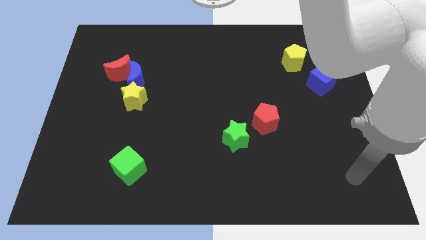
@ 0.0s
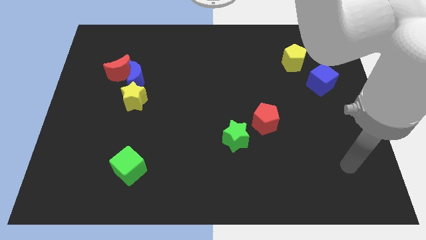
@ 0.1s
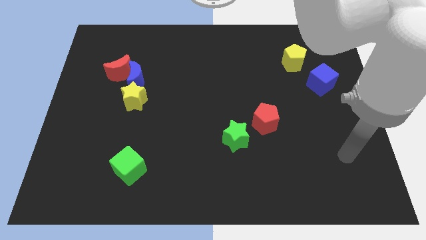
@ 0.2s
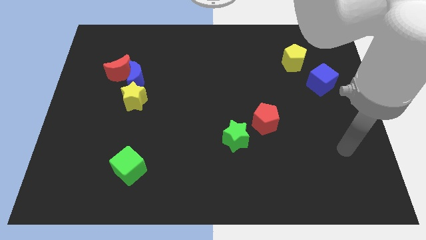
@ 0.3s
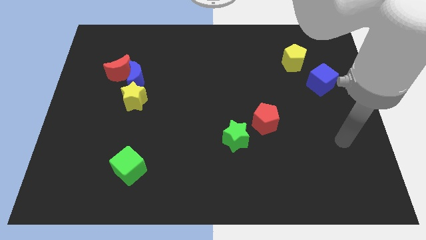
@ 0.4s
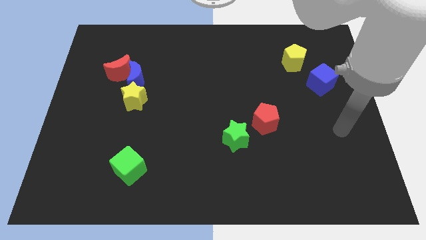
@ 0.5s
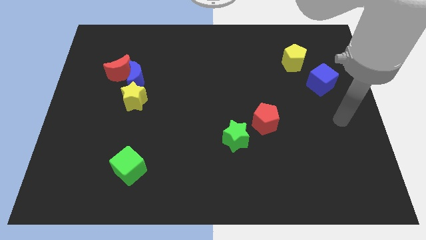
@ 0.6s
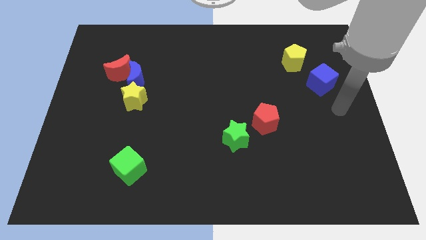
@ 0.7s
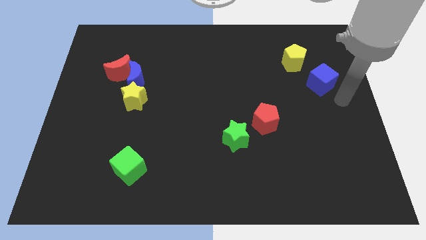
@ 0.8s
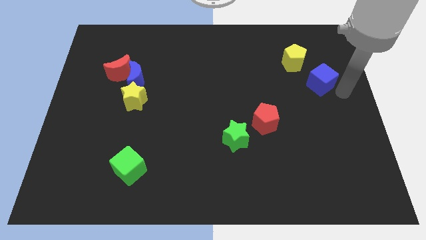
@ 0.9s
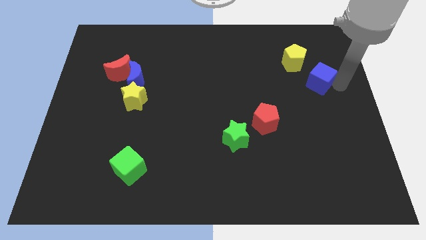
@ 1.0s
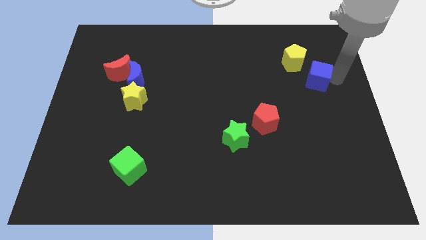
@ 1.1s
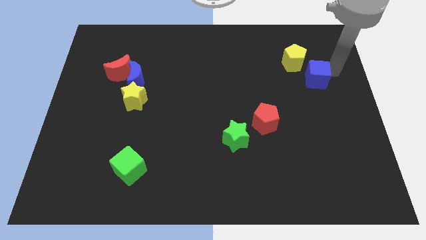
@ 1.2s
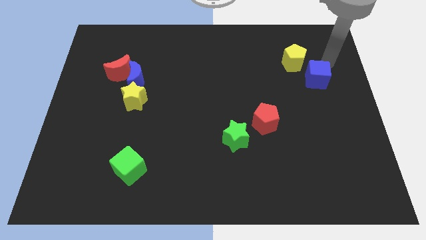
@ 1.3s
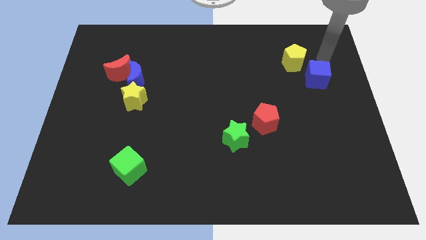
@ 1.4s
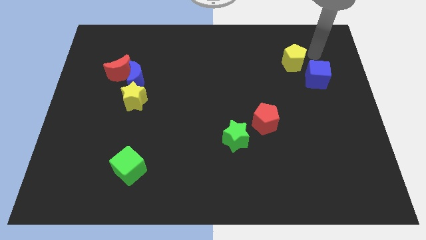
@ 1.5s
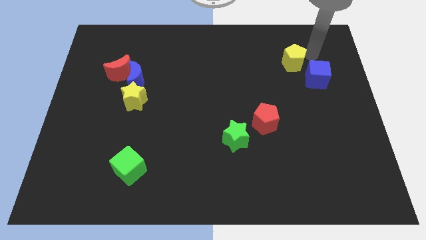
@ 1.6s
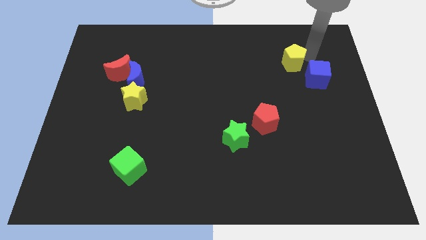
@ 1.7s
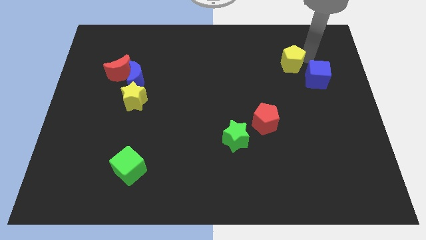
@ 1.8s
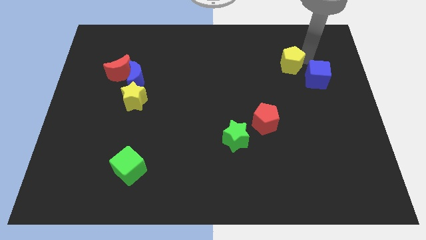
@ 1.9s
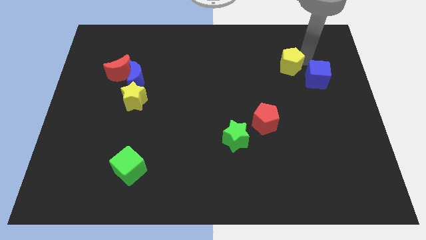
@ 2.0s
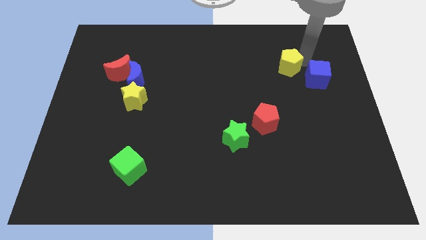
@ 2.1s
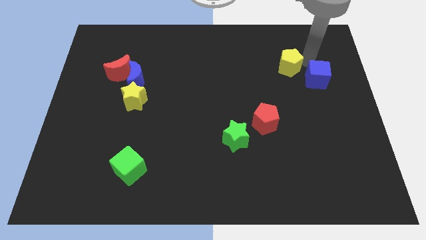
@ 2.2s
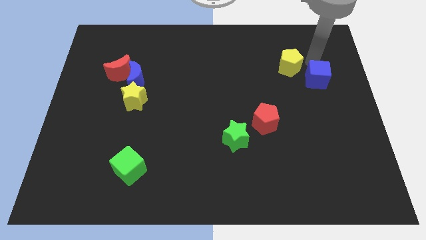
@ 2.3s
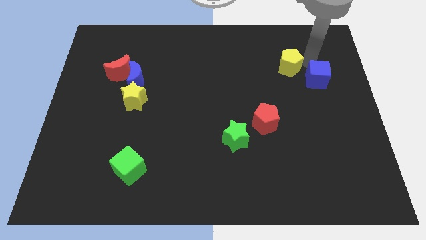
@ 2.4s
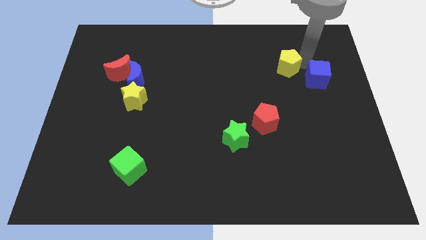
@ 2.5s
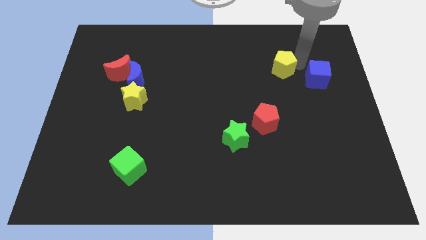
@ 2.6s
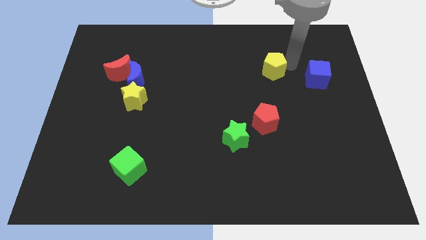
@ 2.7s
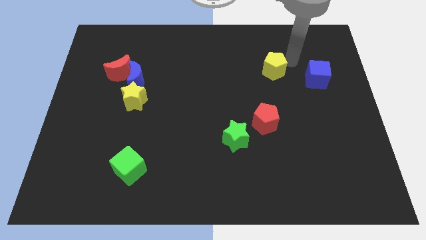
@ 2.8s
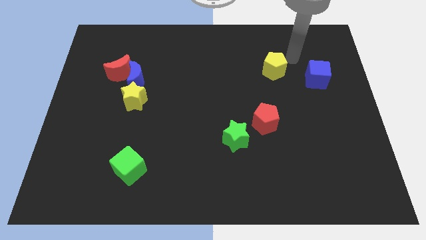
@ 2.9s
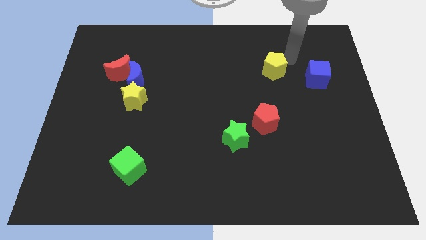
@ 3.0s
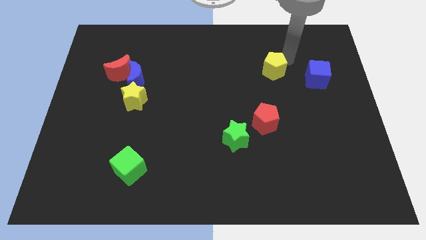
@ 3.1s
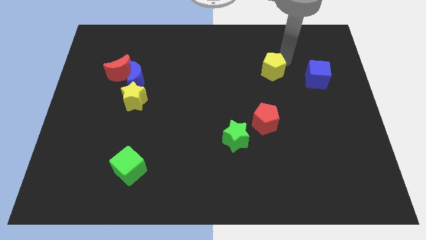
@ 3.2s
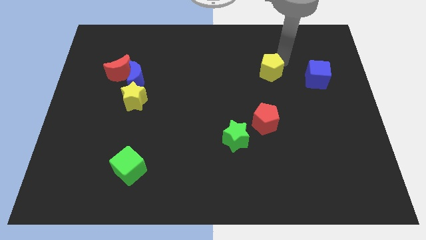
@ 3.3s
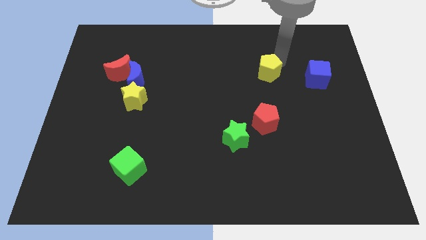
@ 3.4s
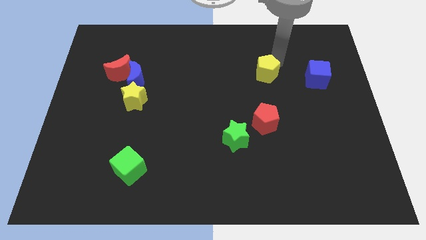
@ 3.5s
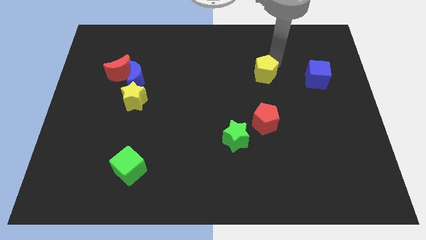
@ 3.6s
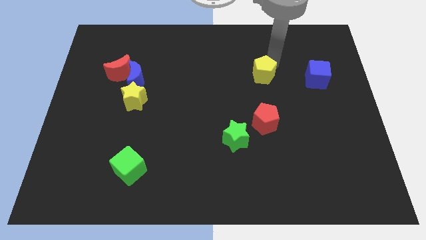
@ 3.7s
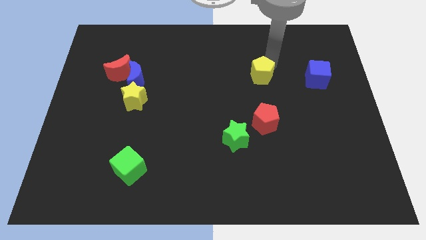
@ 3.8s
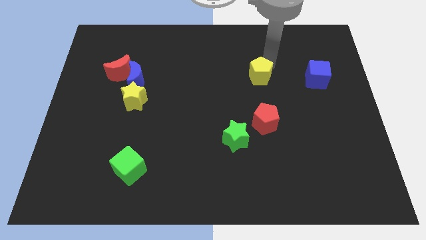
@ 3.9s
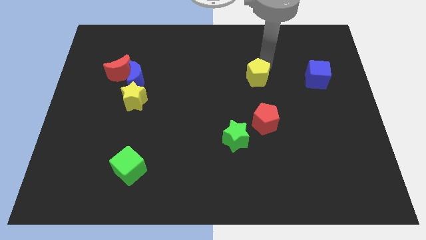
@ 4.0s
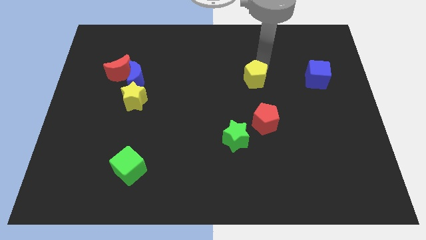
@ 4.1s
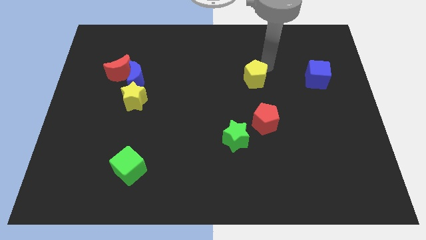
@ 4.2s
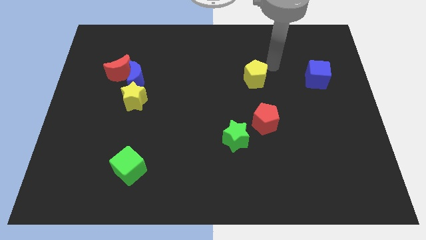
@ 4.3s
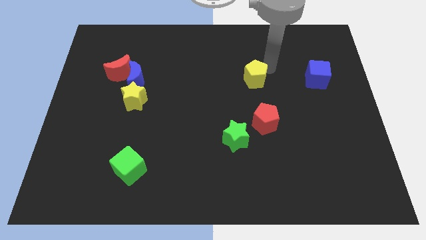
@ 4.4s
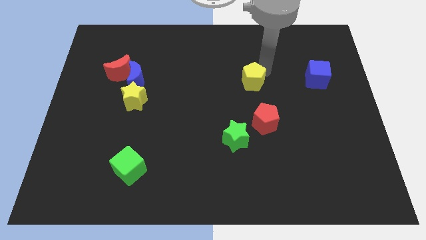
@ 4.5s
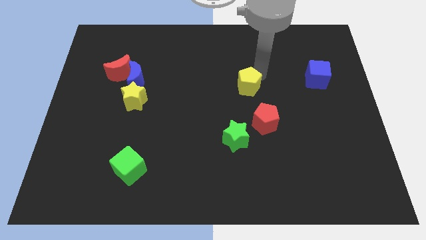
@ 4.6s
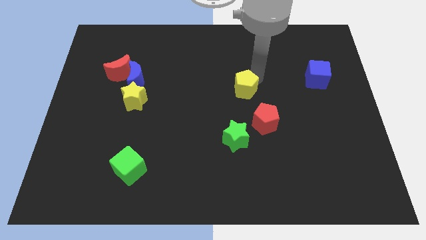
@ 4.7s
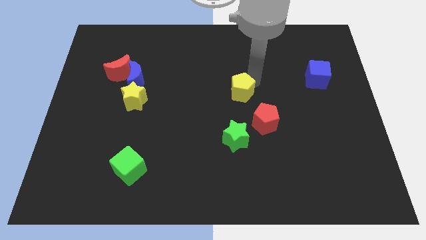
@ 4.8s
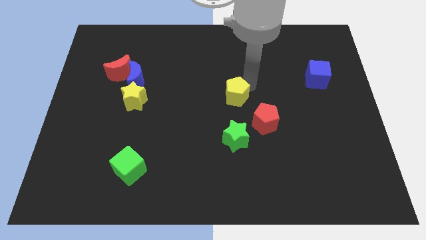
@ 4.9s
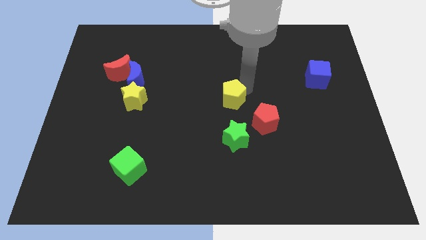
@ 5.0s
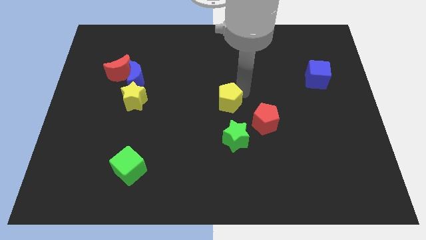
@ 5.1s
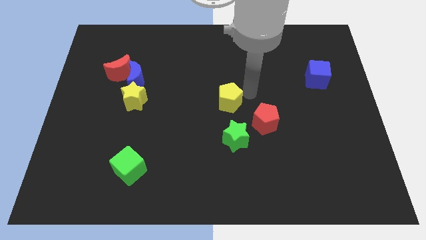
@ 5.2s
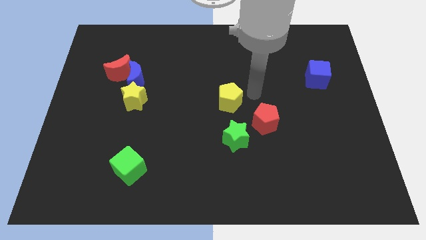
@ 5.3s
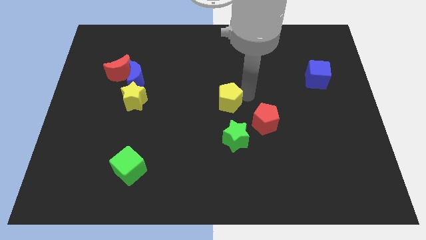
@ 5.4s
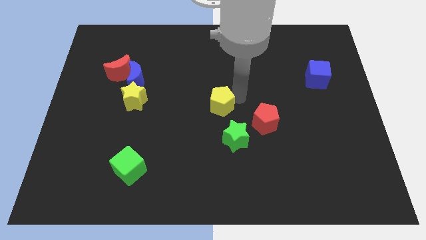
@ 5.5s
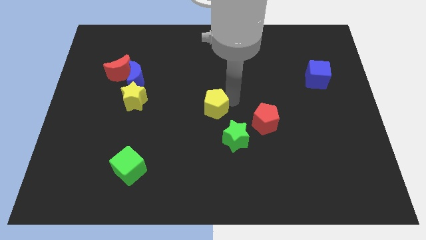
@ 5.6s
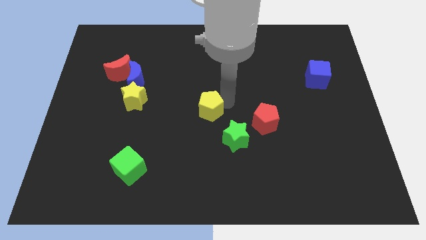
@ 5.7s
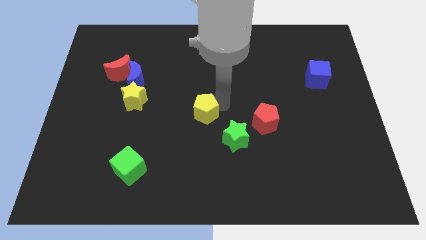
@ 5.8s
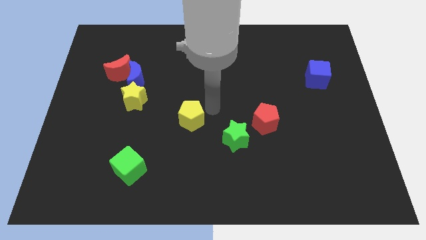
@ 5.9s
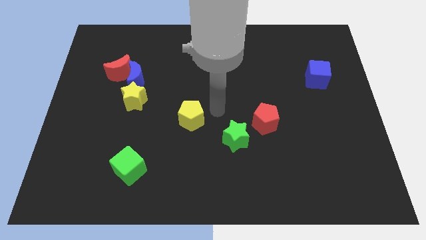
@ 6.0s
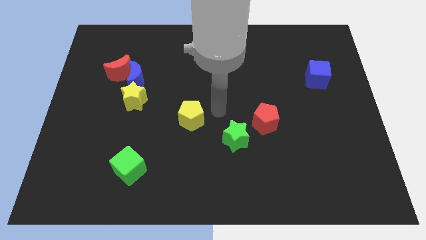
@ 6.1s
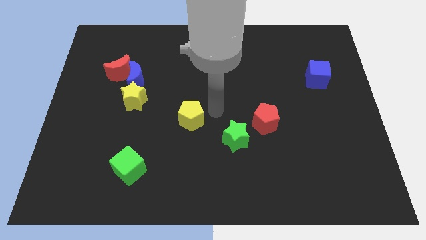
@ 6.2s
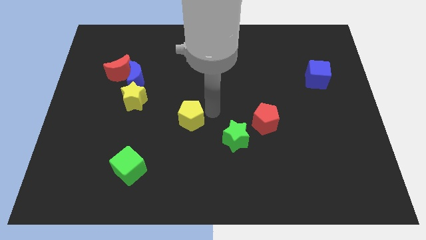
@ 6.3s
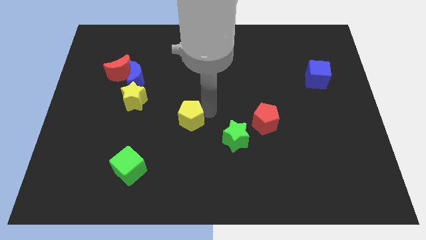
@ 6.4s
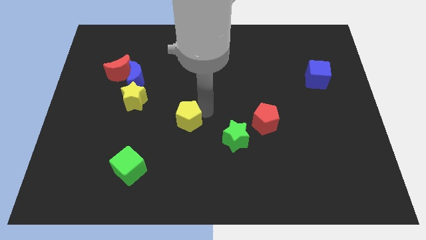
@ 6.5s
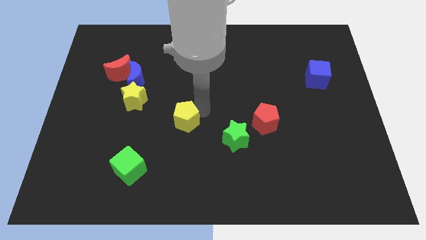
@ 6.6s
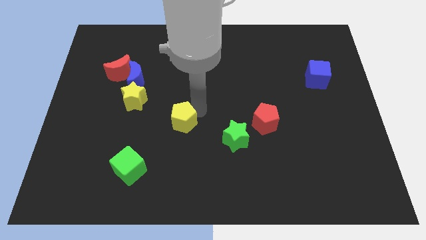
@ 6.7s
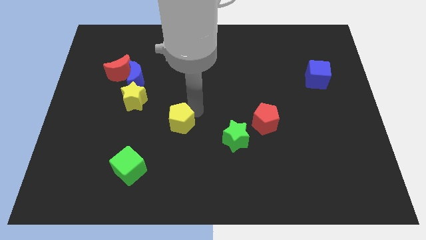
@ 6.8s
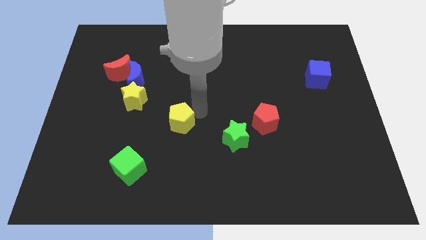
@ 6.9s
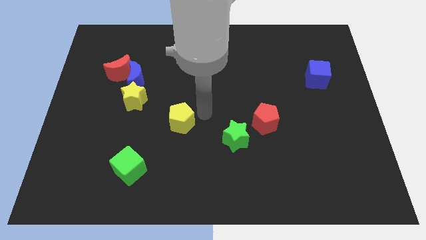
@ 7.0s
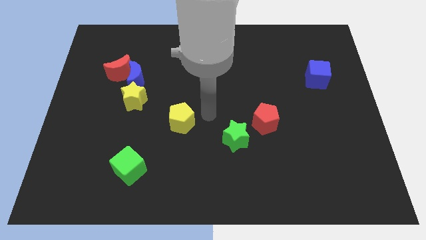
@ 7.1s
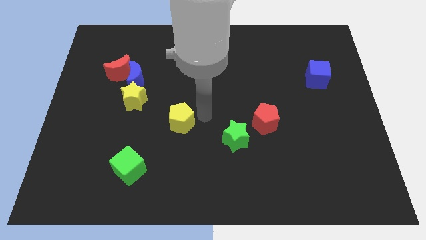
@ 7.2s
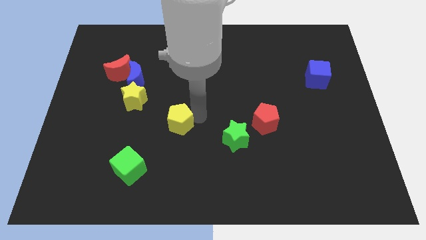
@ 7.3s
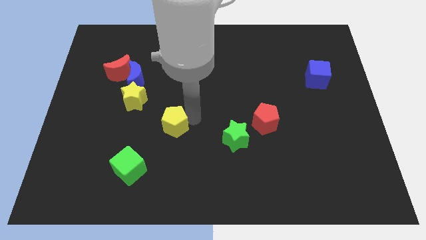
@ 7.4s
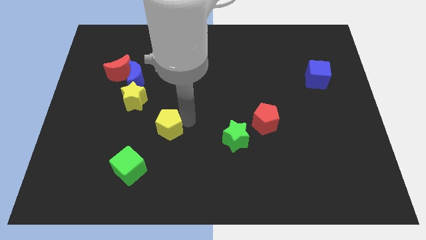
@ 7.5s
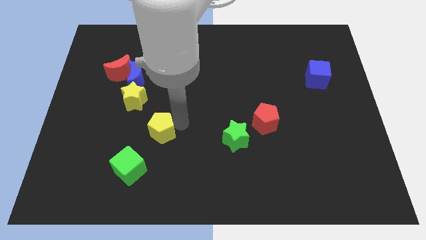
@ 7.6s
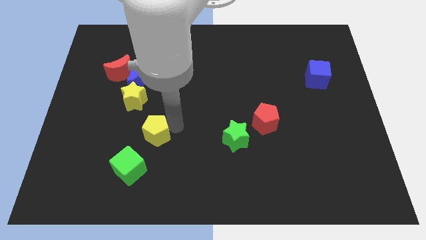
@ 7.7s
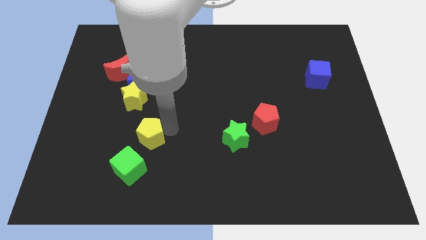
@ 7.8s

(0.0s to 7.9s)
slide the yellow pentagon to the bottom side of the yellow star
